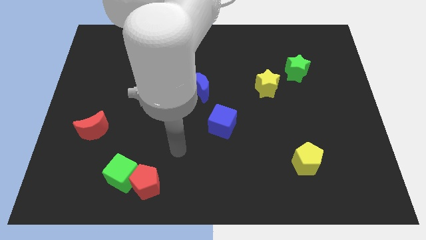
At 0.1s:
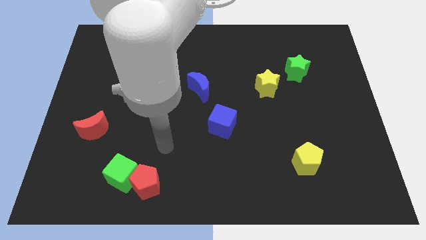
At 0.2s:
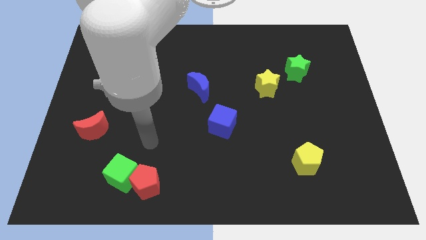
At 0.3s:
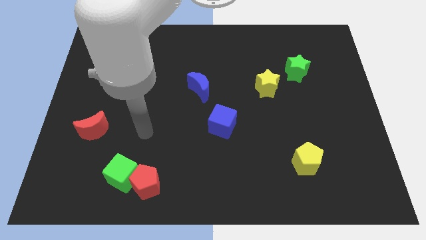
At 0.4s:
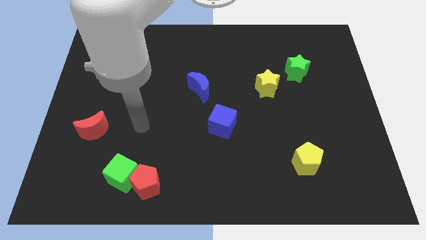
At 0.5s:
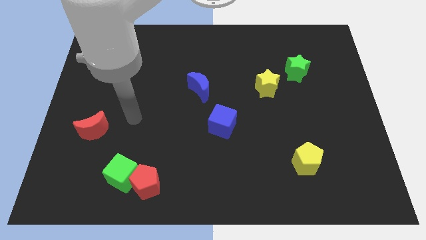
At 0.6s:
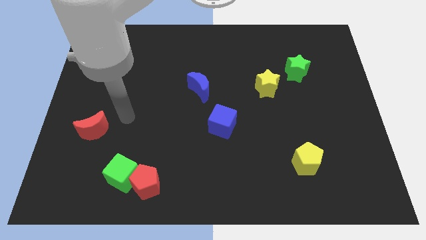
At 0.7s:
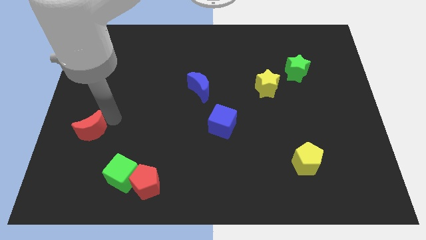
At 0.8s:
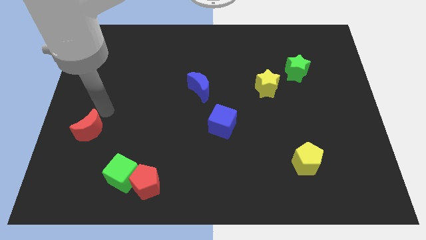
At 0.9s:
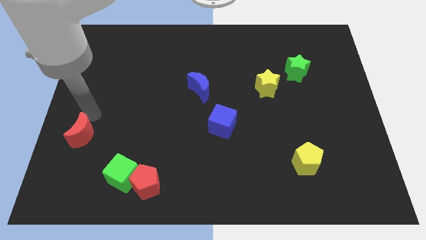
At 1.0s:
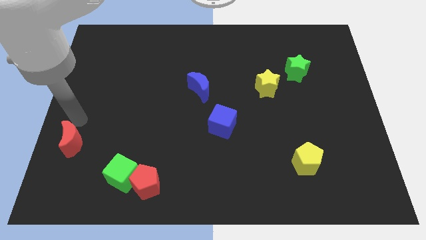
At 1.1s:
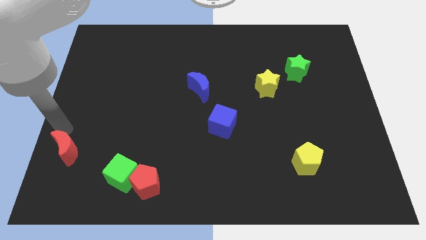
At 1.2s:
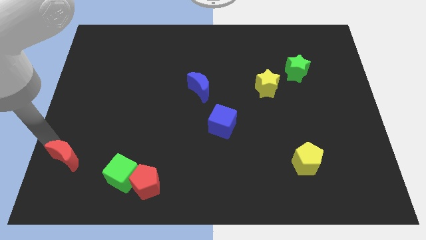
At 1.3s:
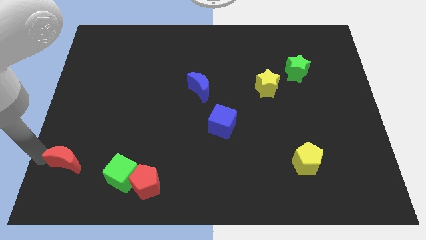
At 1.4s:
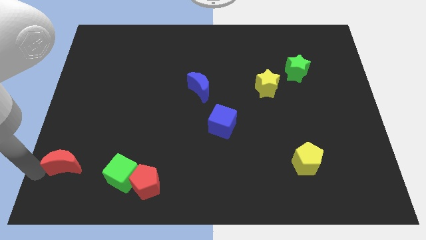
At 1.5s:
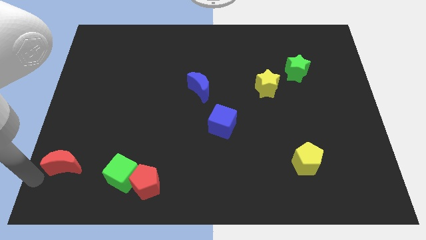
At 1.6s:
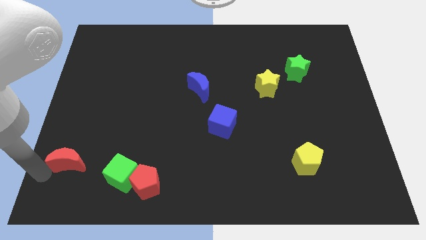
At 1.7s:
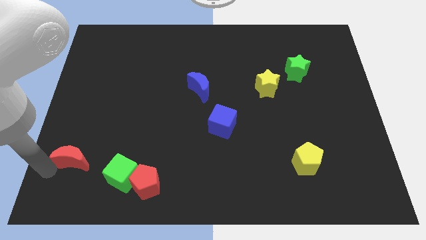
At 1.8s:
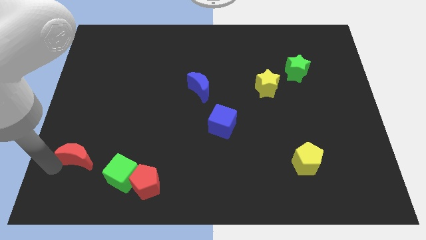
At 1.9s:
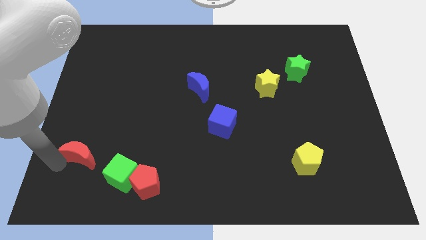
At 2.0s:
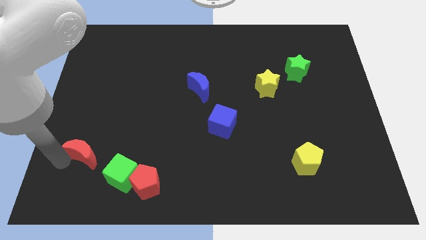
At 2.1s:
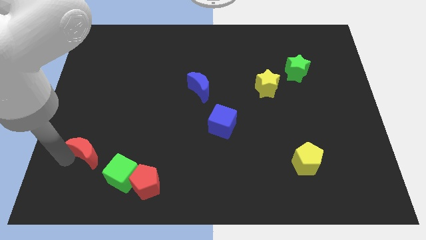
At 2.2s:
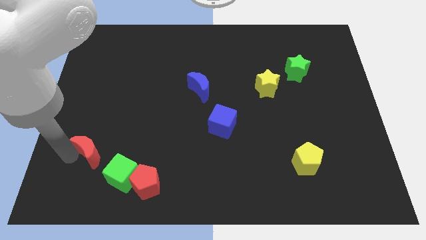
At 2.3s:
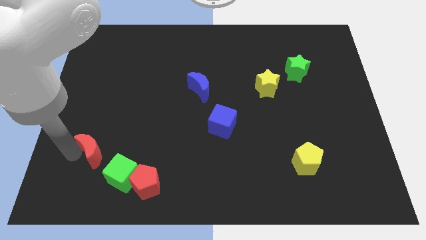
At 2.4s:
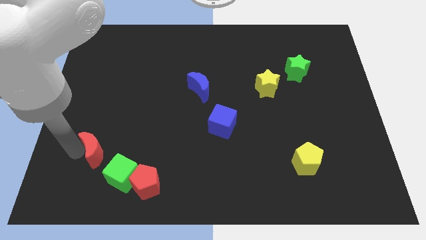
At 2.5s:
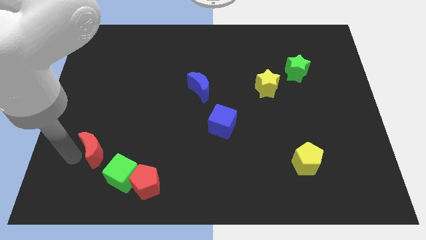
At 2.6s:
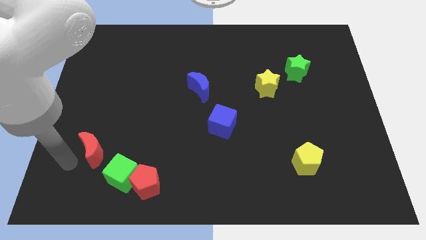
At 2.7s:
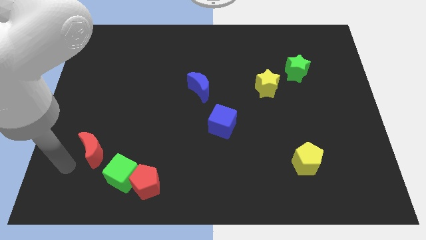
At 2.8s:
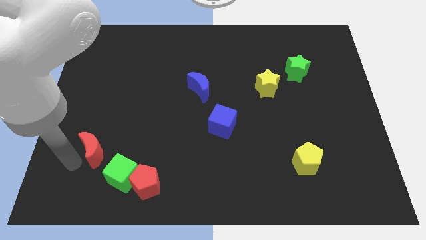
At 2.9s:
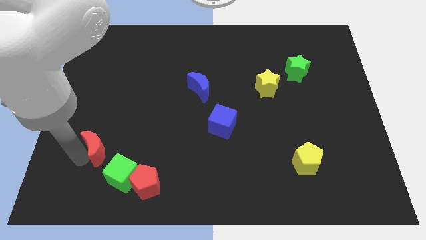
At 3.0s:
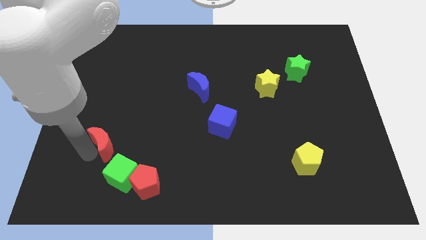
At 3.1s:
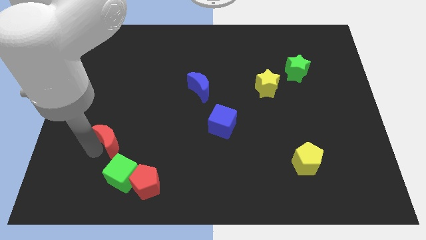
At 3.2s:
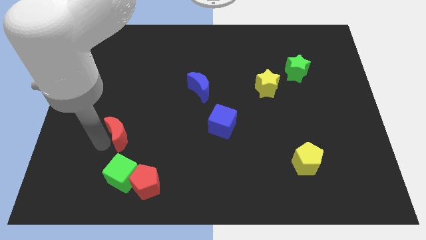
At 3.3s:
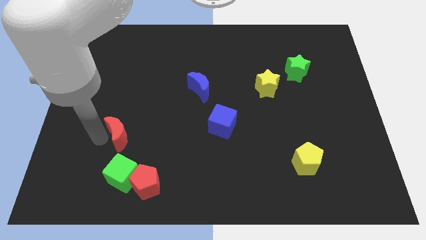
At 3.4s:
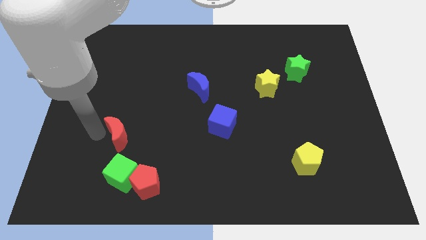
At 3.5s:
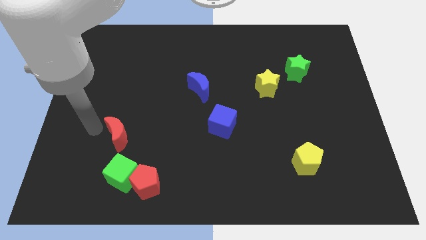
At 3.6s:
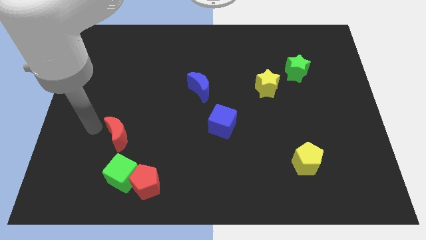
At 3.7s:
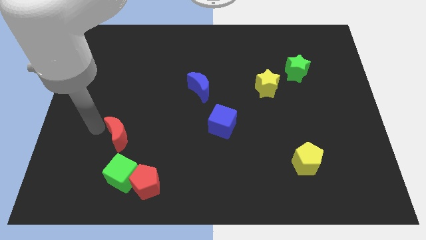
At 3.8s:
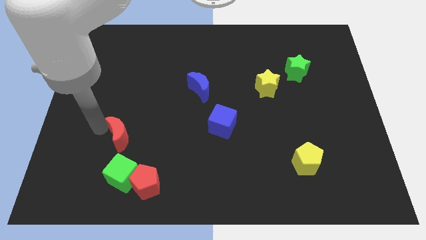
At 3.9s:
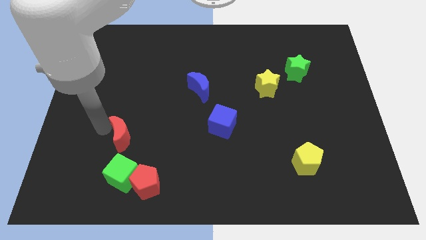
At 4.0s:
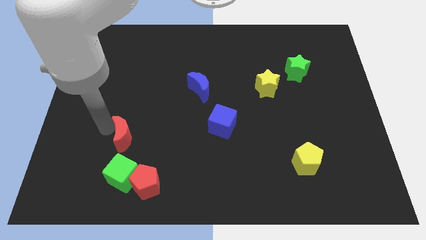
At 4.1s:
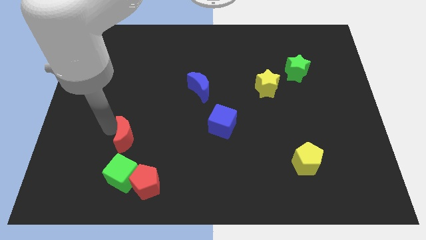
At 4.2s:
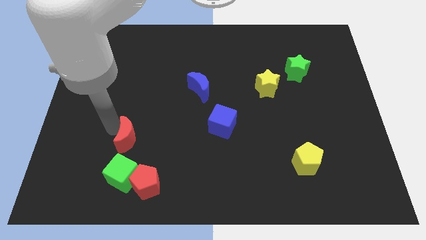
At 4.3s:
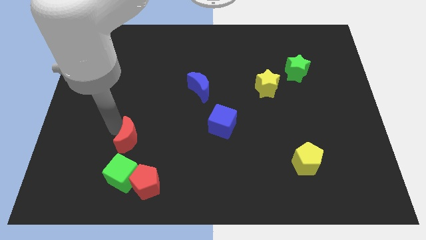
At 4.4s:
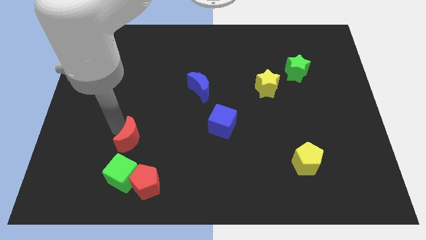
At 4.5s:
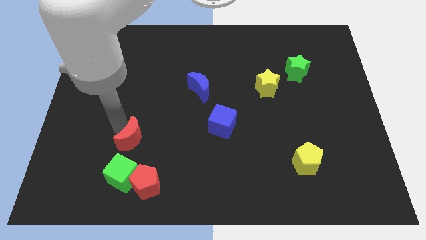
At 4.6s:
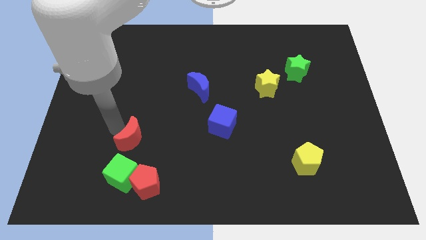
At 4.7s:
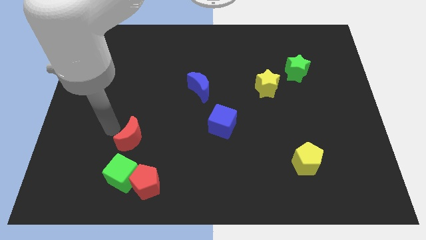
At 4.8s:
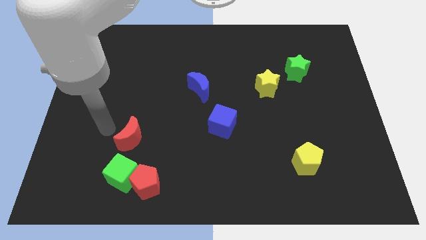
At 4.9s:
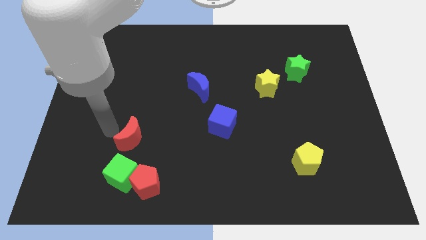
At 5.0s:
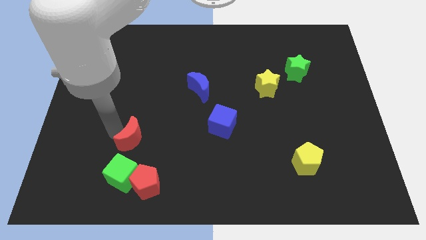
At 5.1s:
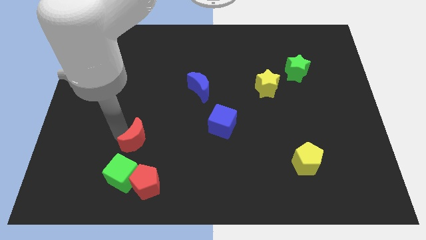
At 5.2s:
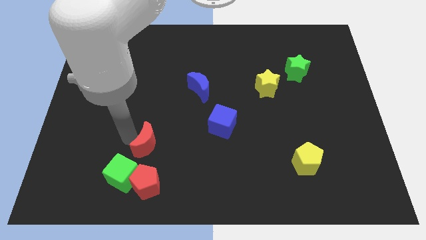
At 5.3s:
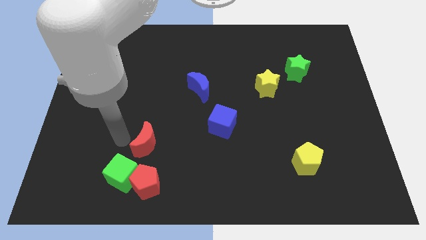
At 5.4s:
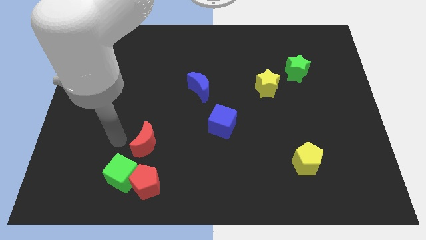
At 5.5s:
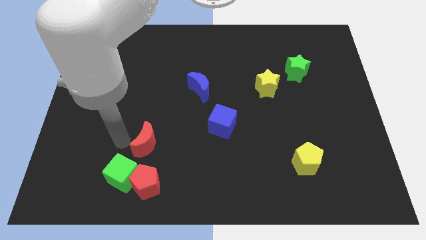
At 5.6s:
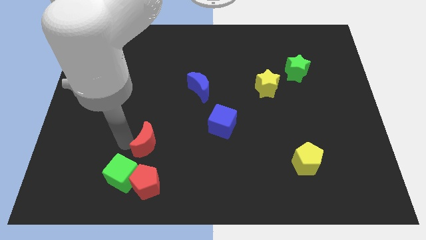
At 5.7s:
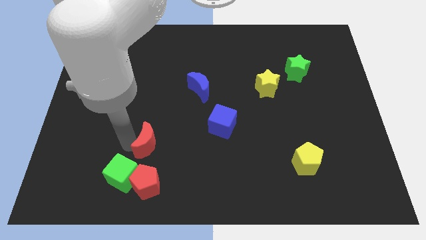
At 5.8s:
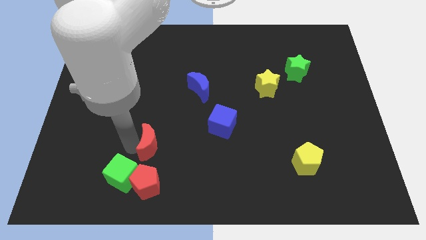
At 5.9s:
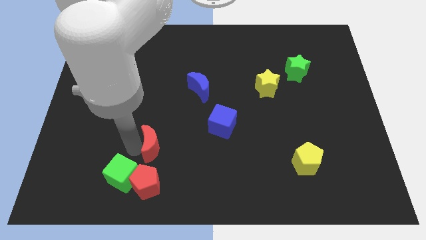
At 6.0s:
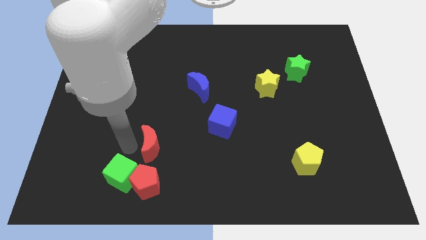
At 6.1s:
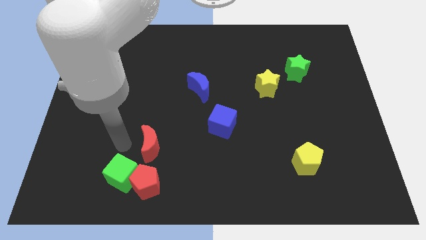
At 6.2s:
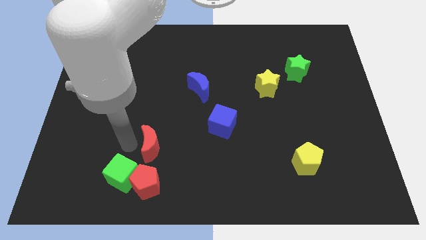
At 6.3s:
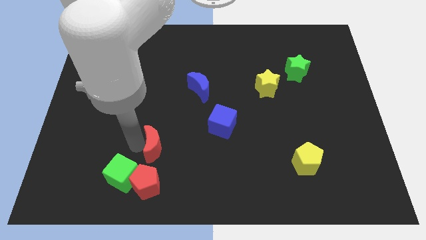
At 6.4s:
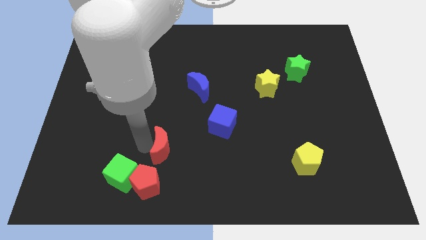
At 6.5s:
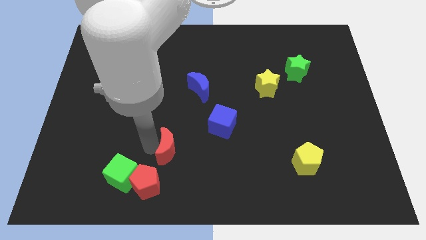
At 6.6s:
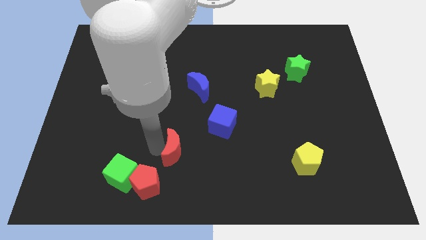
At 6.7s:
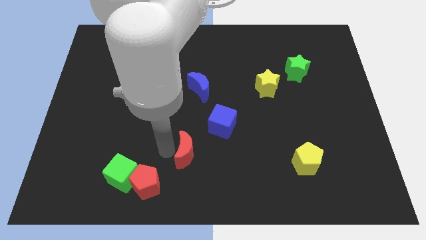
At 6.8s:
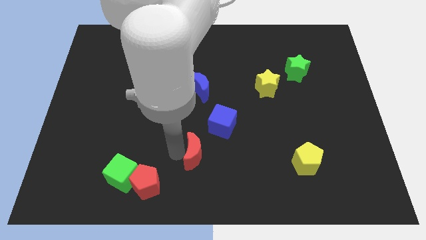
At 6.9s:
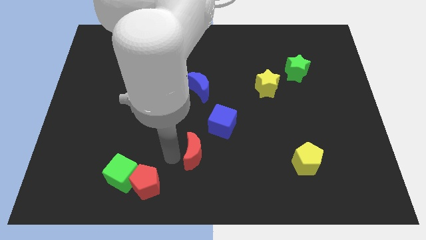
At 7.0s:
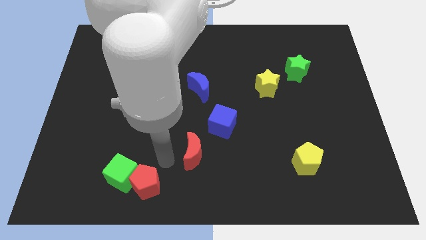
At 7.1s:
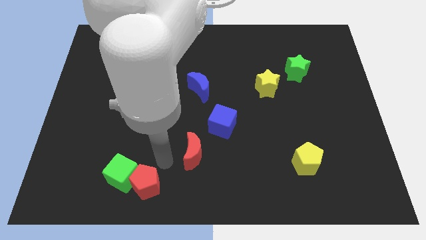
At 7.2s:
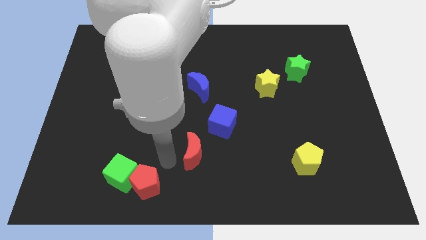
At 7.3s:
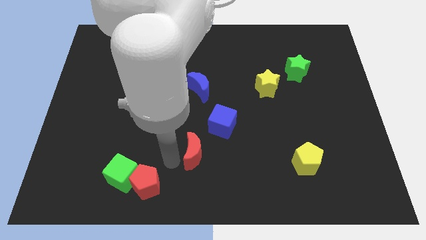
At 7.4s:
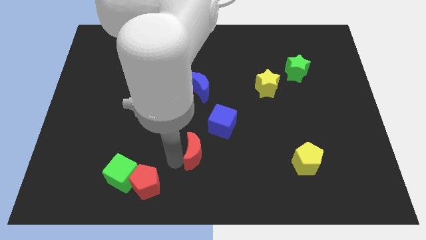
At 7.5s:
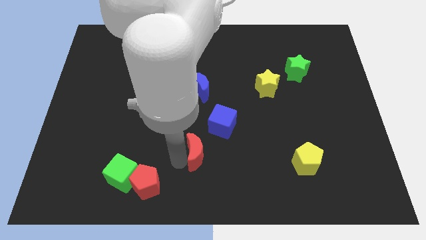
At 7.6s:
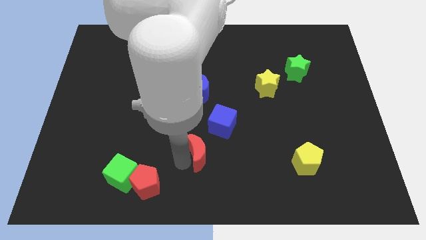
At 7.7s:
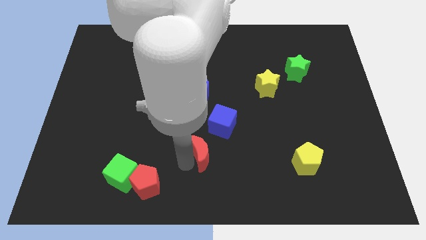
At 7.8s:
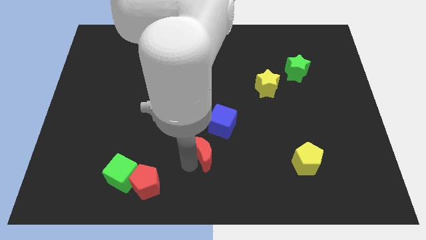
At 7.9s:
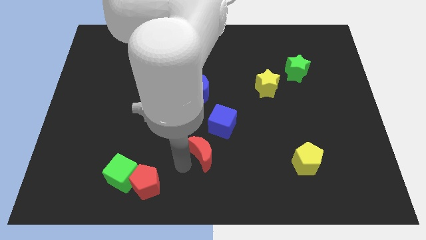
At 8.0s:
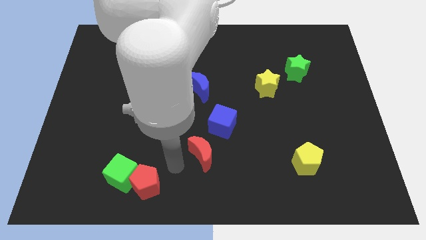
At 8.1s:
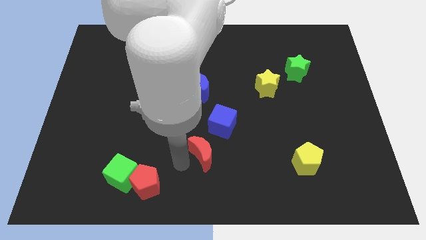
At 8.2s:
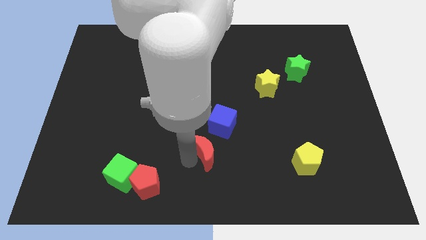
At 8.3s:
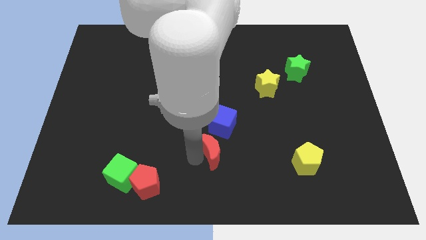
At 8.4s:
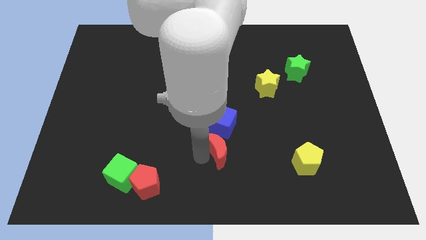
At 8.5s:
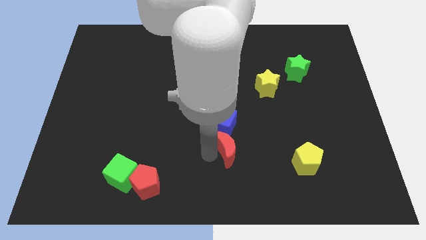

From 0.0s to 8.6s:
push the red moon diagonally down and to the right of the blue cube
